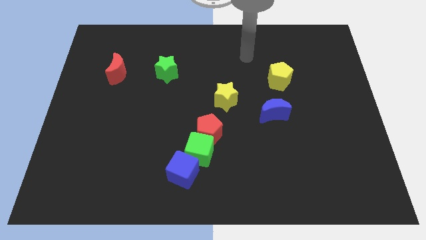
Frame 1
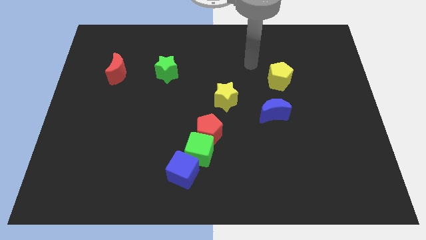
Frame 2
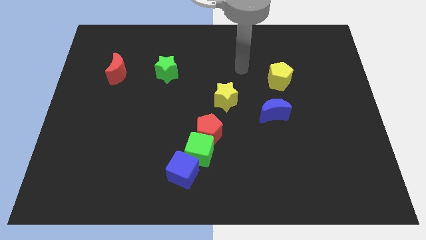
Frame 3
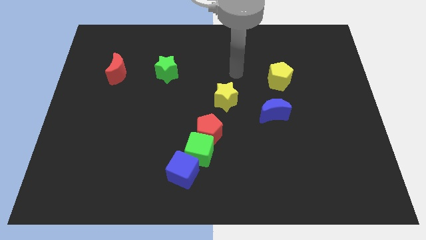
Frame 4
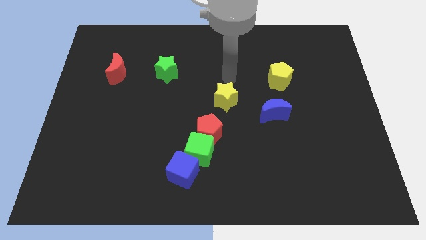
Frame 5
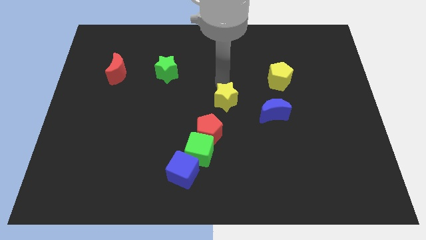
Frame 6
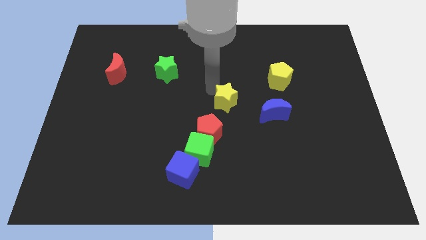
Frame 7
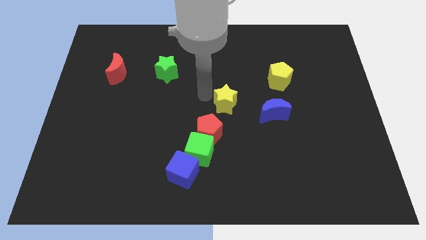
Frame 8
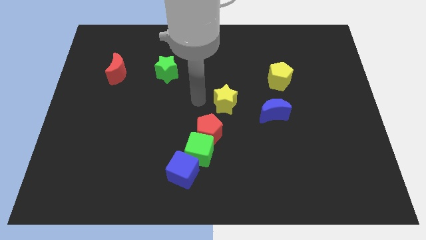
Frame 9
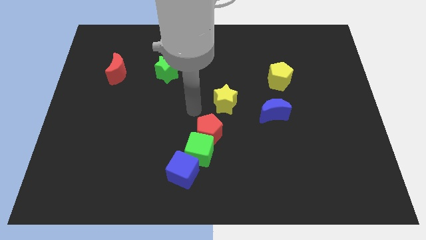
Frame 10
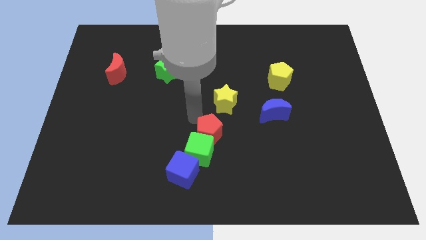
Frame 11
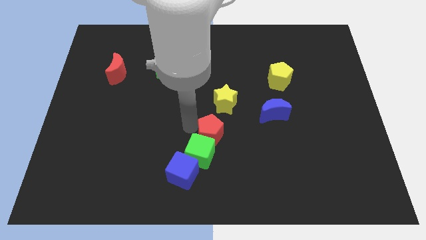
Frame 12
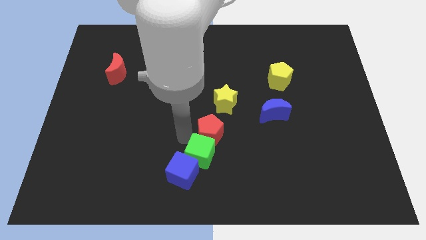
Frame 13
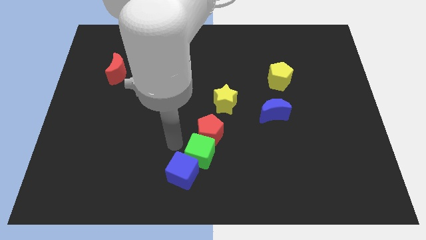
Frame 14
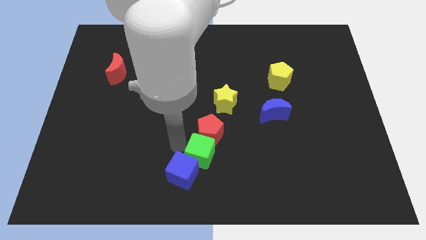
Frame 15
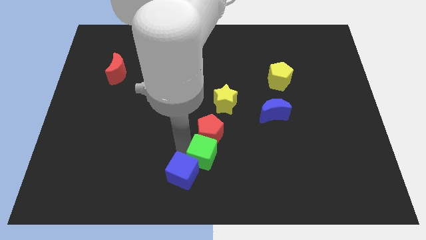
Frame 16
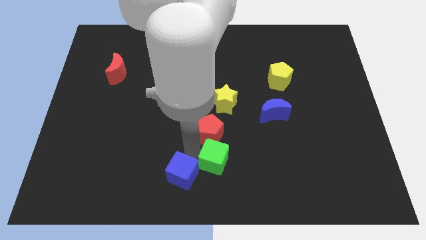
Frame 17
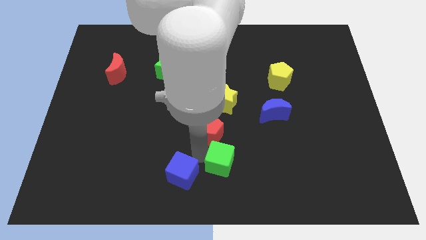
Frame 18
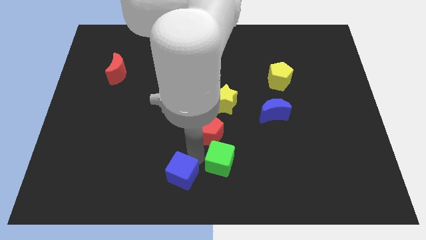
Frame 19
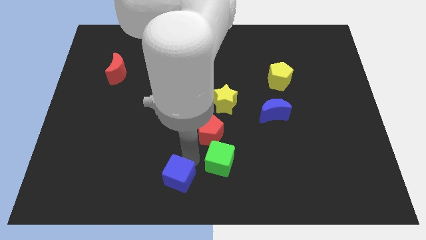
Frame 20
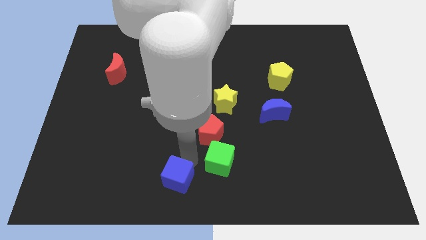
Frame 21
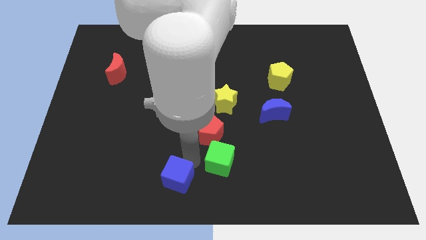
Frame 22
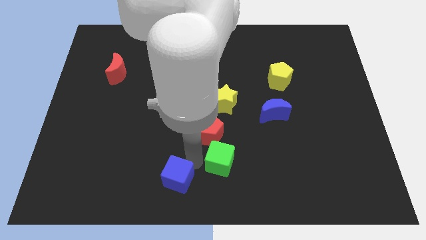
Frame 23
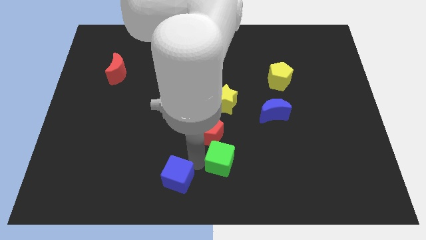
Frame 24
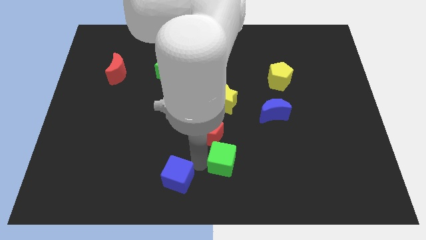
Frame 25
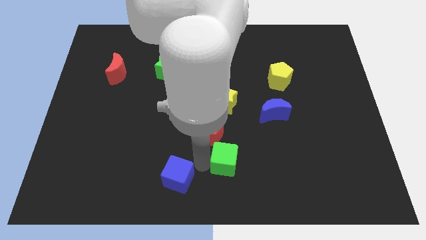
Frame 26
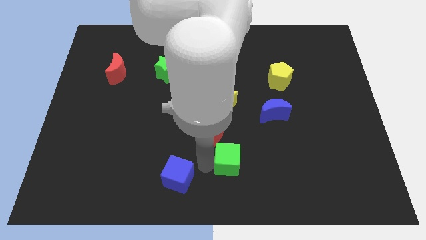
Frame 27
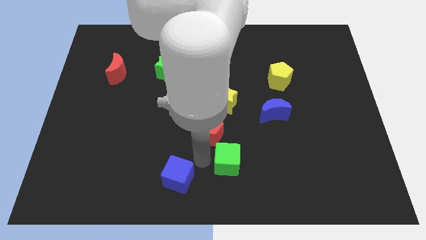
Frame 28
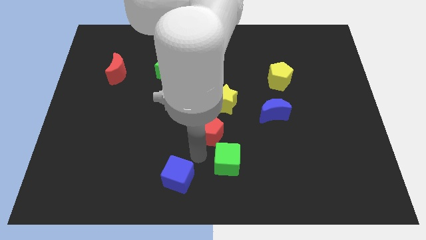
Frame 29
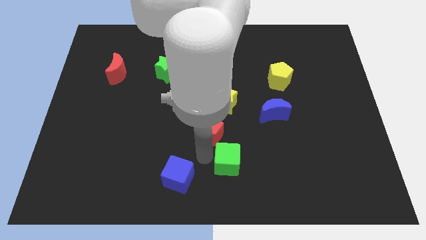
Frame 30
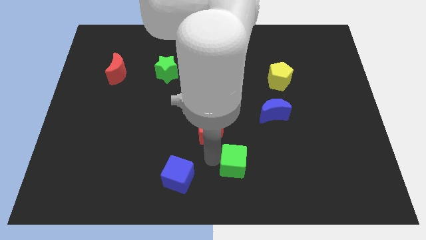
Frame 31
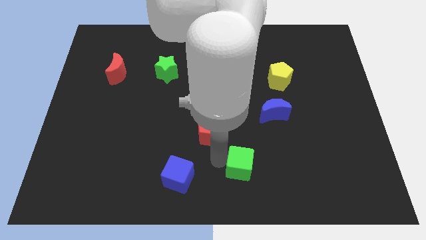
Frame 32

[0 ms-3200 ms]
separate the green cube from the red pentagon and blue cube

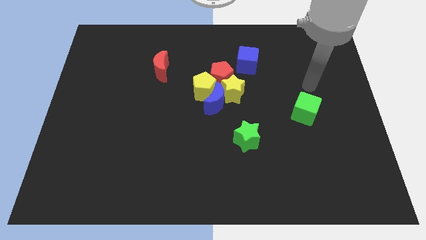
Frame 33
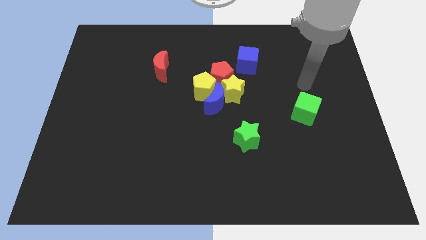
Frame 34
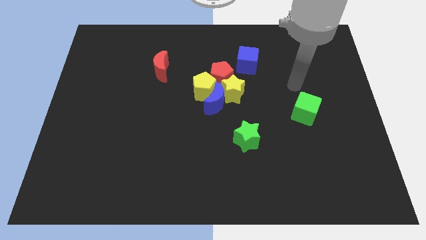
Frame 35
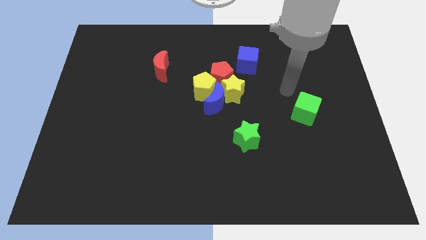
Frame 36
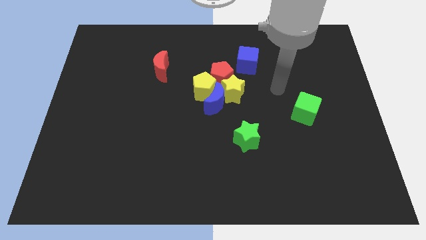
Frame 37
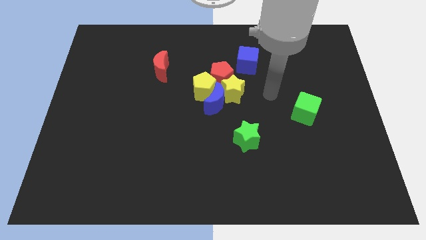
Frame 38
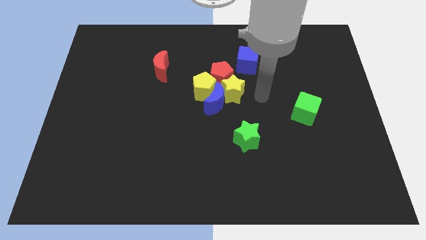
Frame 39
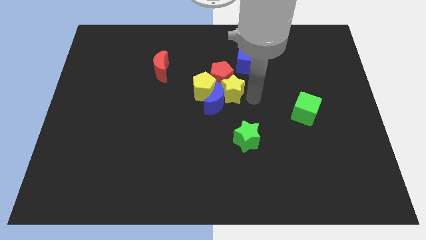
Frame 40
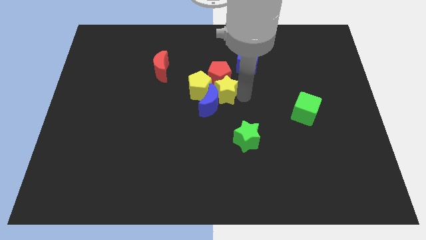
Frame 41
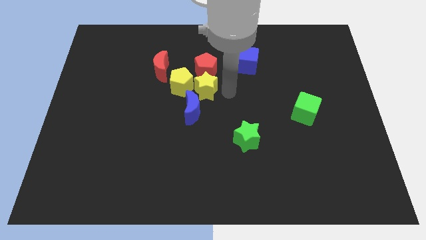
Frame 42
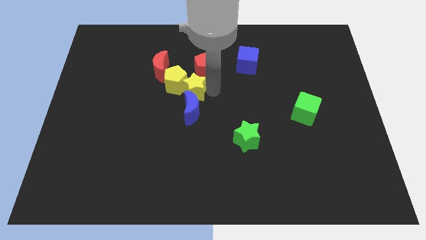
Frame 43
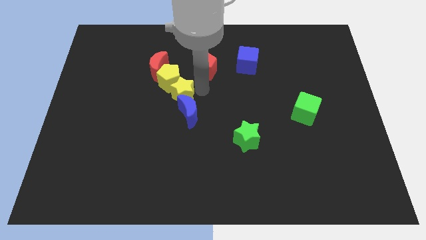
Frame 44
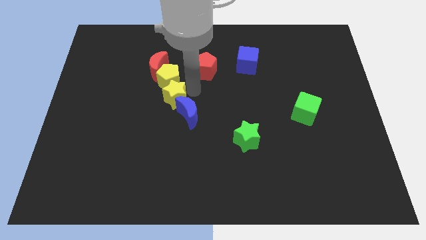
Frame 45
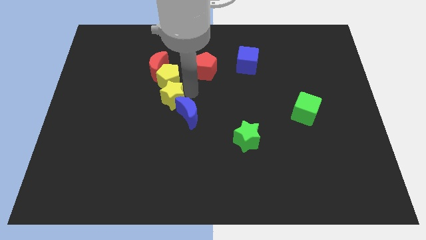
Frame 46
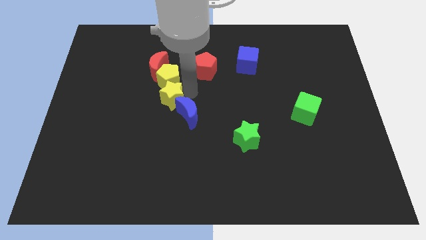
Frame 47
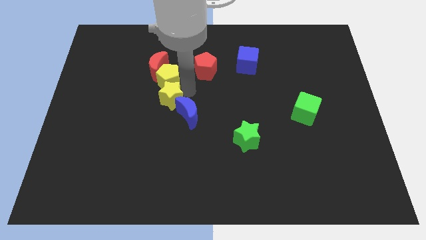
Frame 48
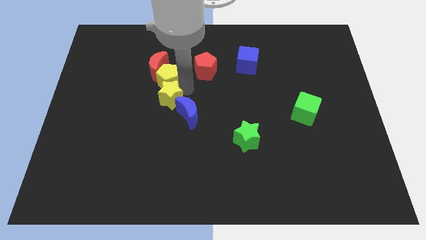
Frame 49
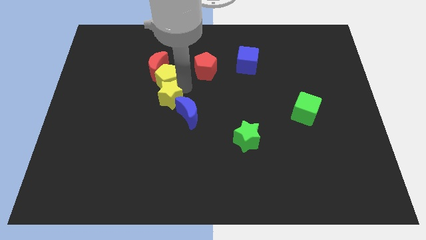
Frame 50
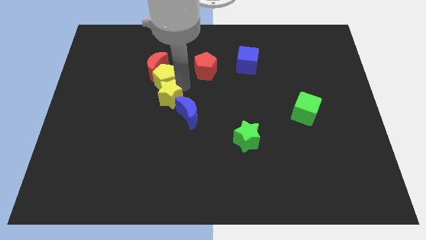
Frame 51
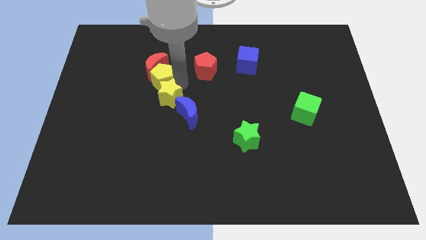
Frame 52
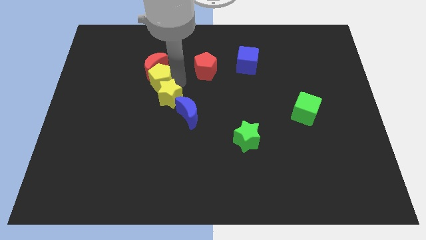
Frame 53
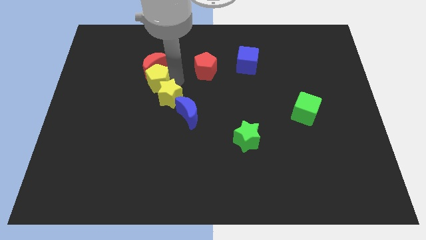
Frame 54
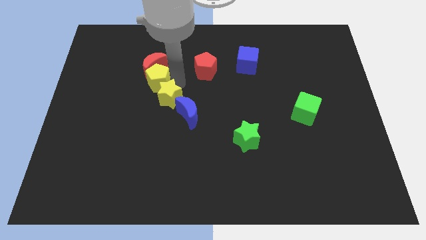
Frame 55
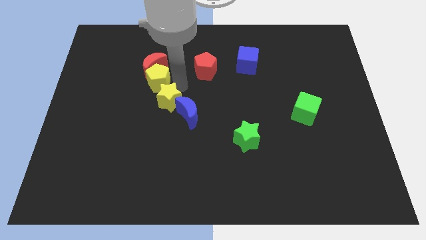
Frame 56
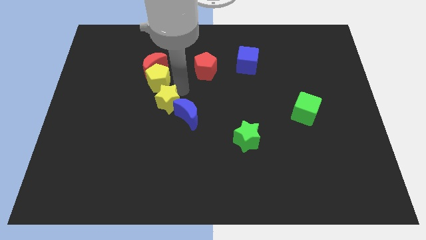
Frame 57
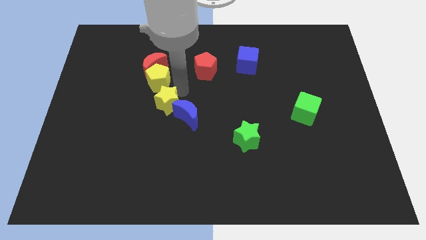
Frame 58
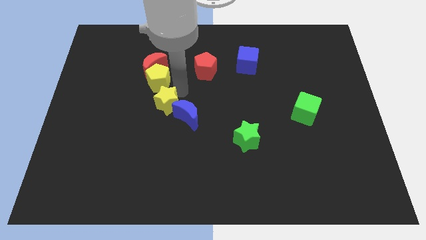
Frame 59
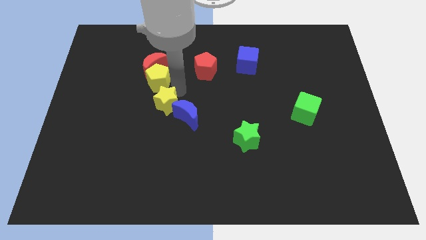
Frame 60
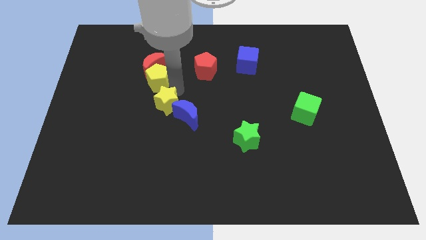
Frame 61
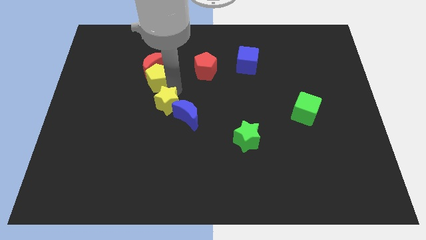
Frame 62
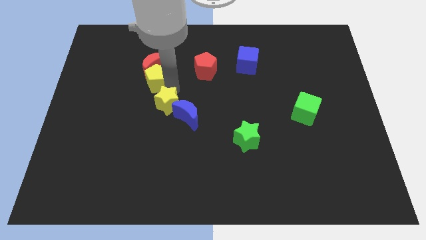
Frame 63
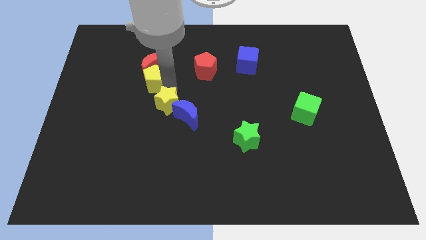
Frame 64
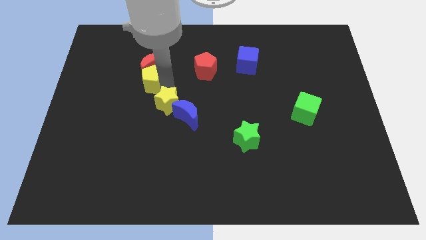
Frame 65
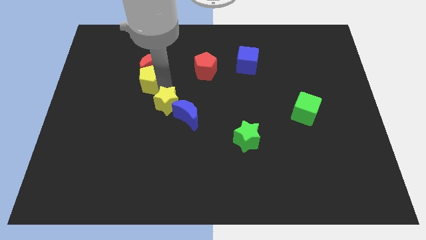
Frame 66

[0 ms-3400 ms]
separate the yellow pentagon from the blue moon, red pentagon, and yellow star

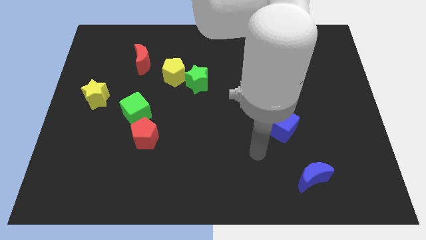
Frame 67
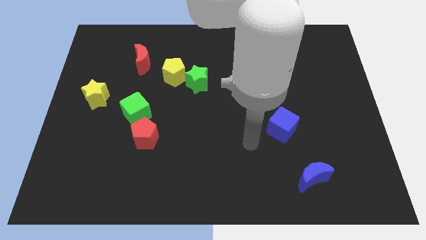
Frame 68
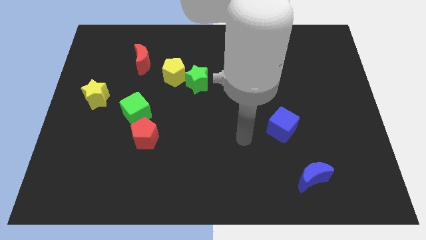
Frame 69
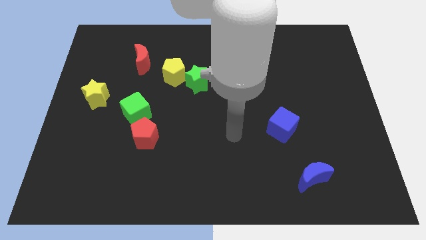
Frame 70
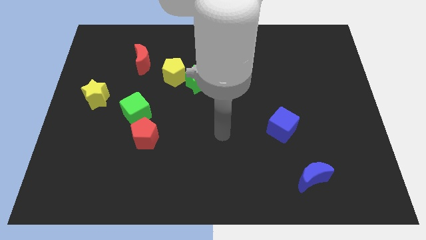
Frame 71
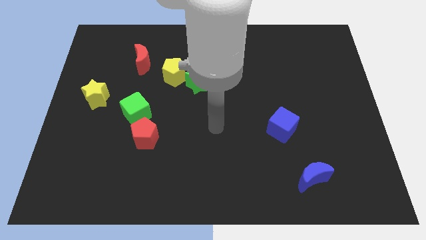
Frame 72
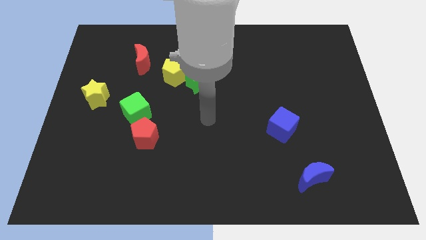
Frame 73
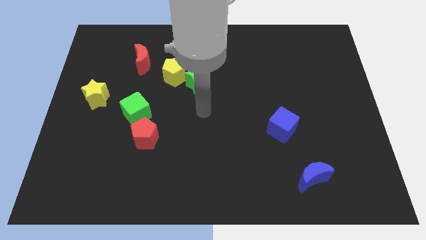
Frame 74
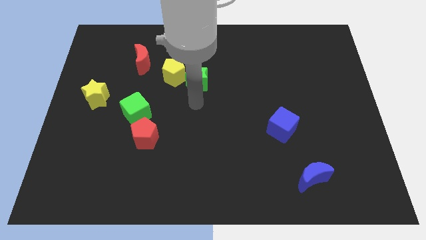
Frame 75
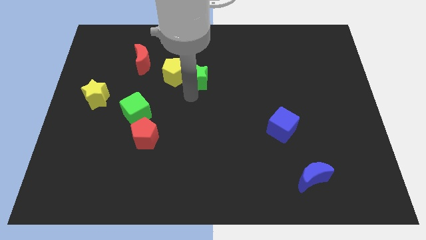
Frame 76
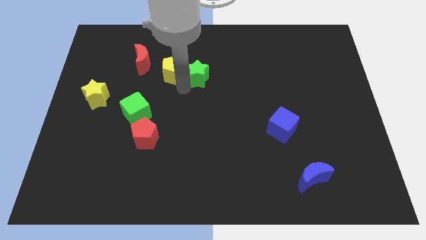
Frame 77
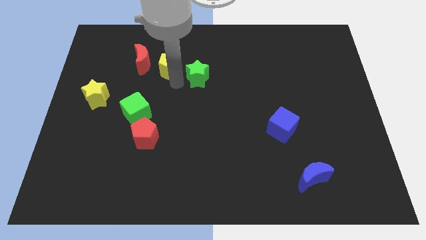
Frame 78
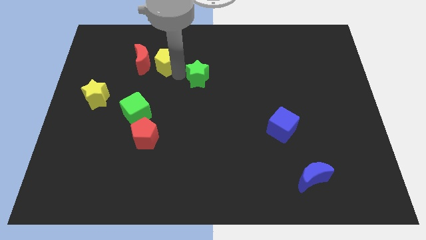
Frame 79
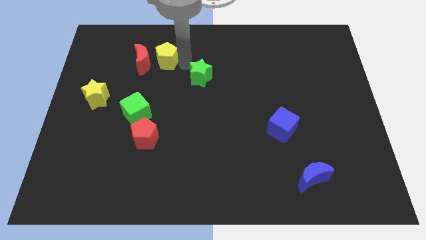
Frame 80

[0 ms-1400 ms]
pull the green star apart from the yellow pentagon

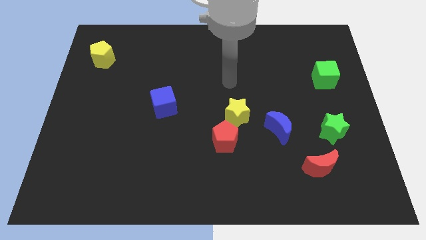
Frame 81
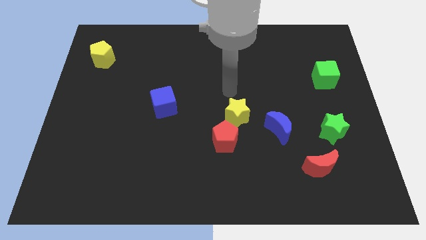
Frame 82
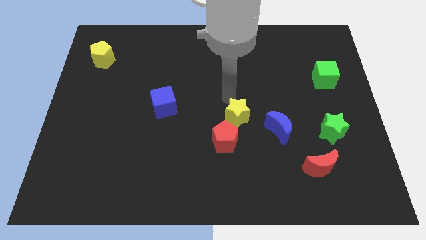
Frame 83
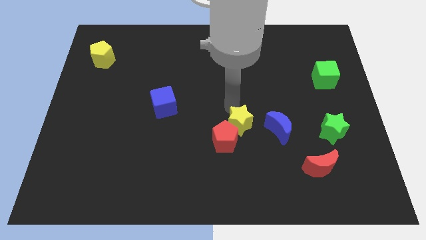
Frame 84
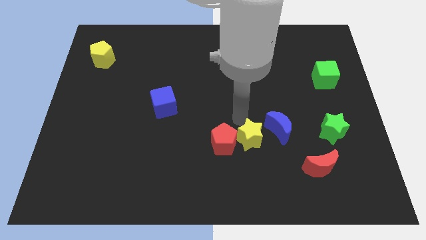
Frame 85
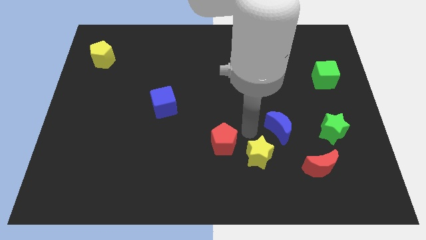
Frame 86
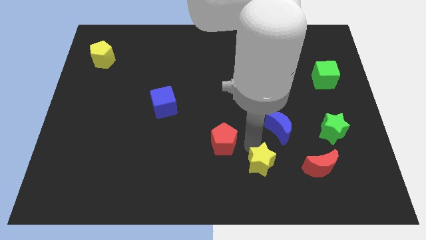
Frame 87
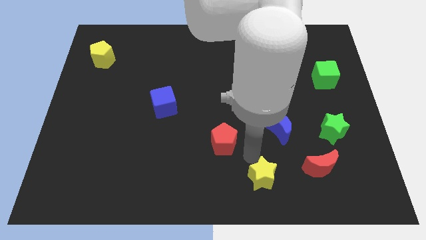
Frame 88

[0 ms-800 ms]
separate the red pentagon from the yellow star

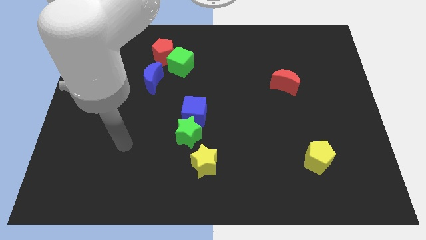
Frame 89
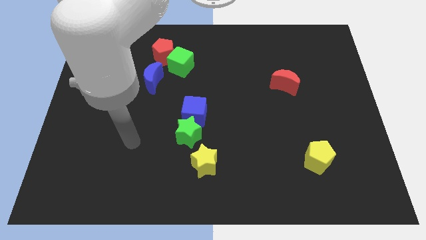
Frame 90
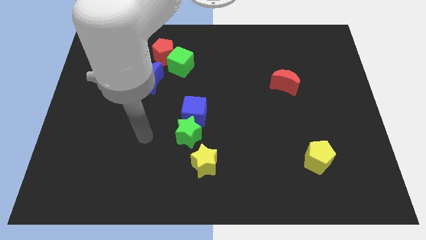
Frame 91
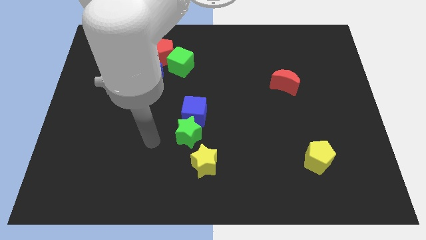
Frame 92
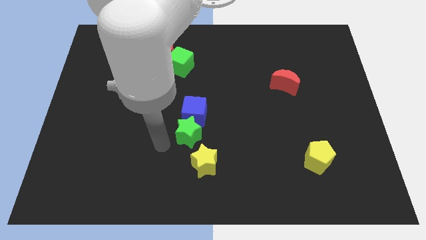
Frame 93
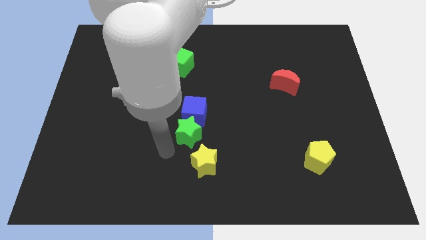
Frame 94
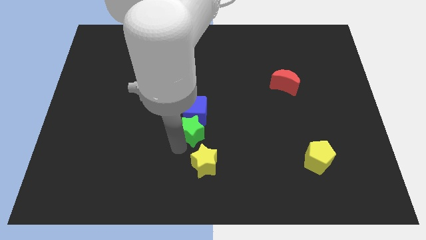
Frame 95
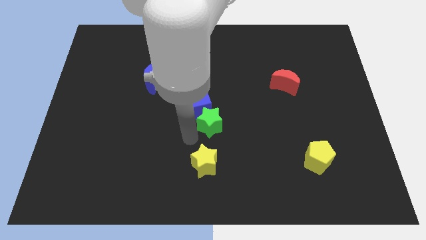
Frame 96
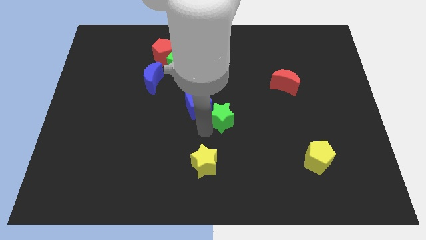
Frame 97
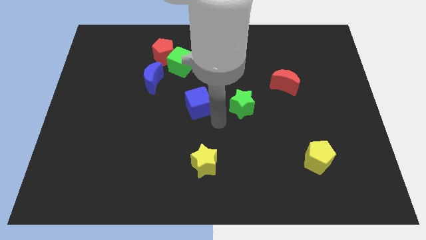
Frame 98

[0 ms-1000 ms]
separate the blue cube from the green star
